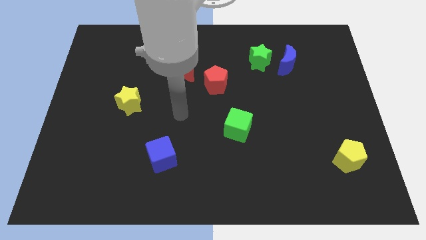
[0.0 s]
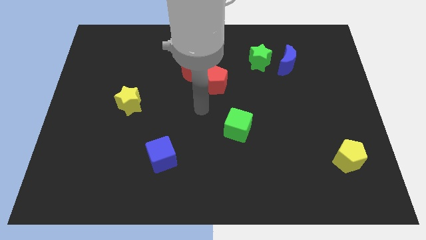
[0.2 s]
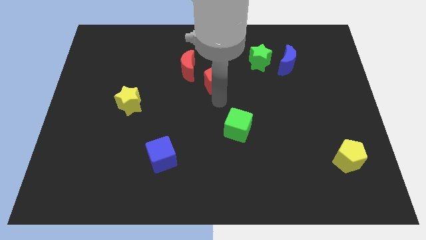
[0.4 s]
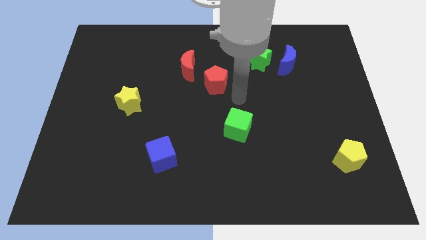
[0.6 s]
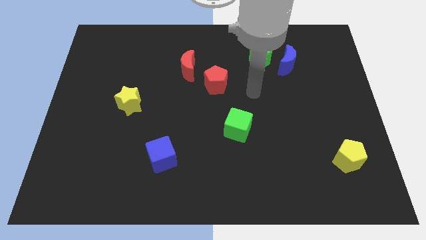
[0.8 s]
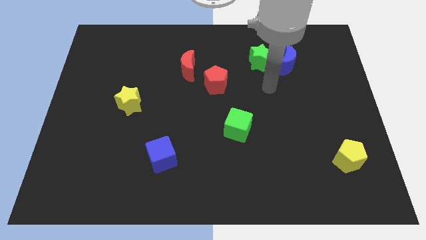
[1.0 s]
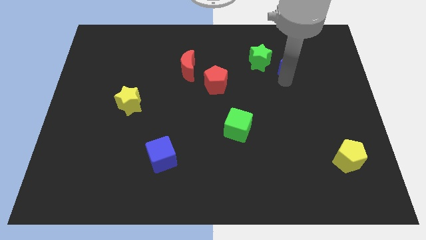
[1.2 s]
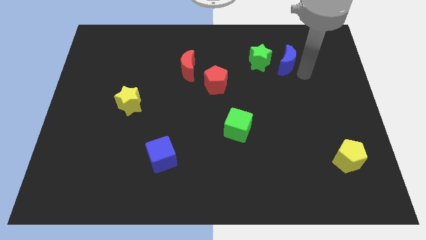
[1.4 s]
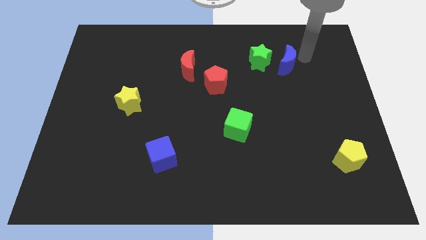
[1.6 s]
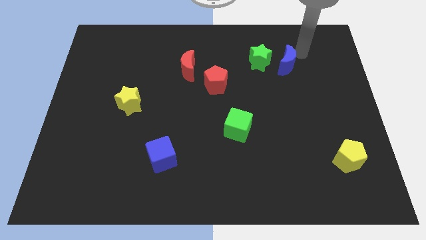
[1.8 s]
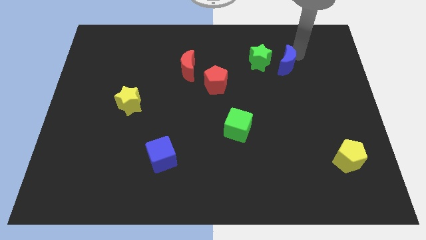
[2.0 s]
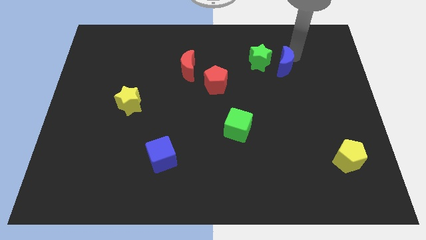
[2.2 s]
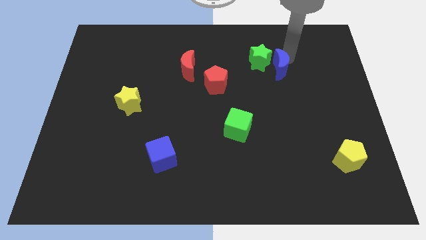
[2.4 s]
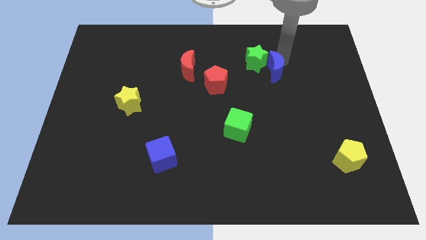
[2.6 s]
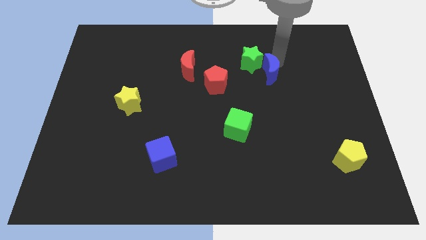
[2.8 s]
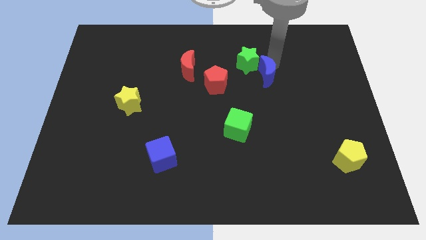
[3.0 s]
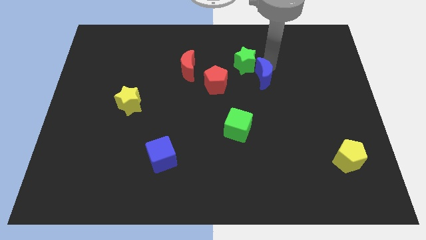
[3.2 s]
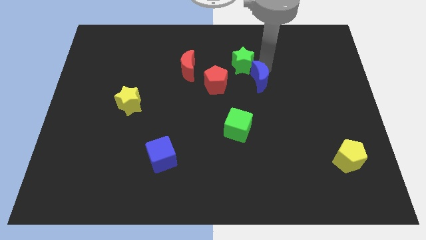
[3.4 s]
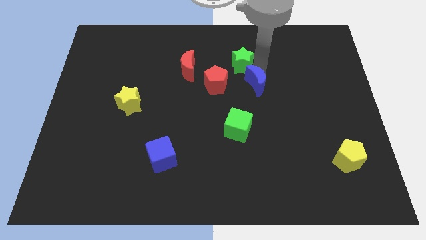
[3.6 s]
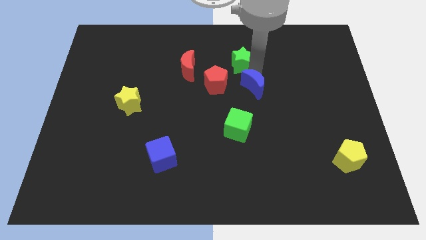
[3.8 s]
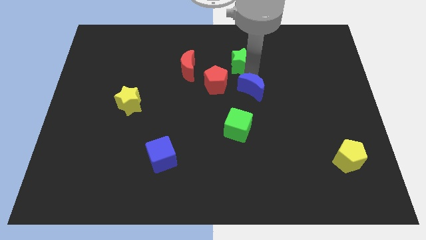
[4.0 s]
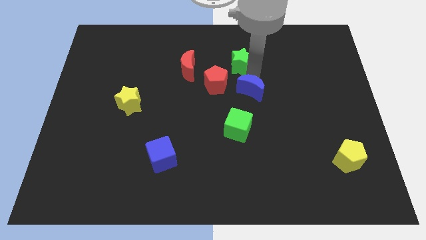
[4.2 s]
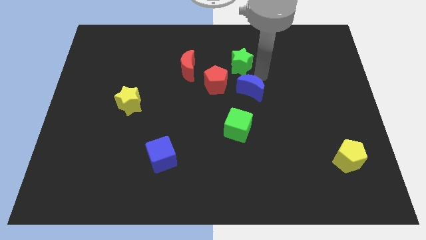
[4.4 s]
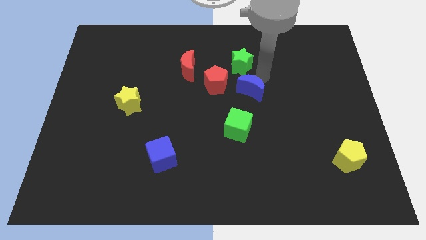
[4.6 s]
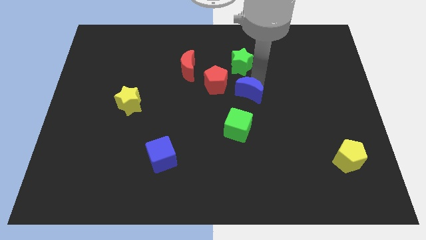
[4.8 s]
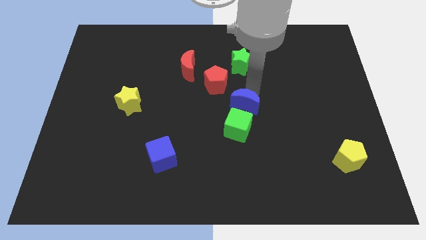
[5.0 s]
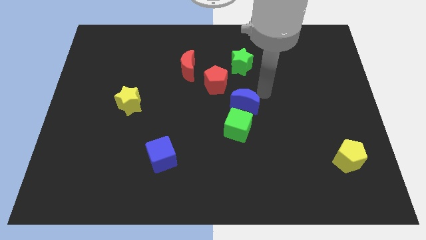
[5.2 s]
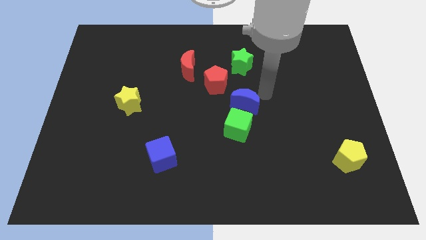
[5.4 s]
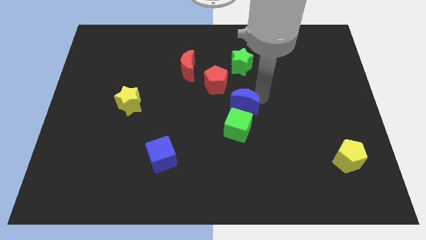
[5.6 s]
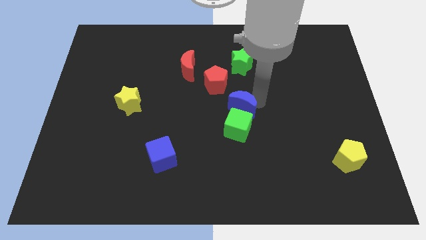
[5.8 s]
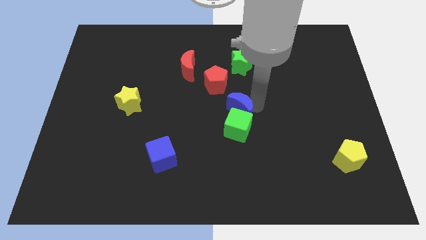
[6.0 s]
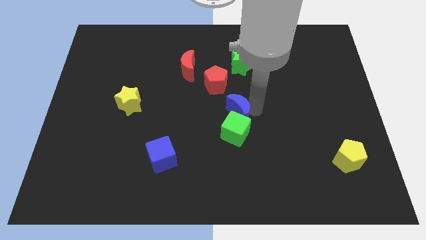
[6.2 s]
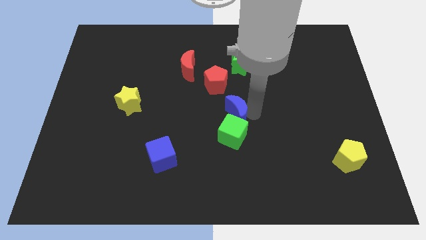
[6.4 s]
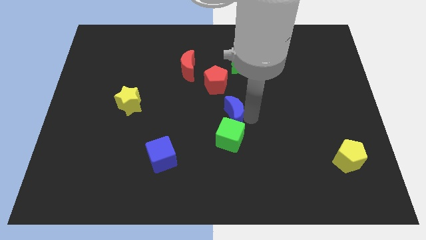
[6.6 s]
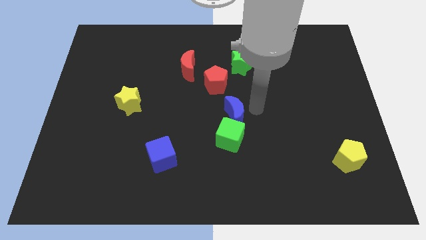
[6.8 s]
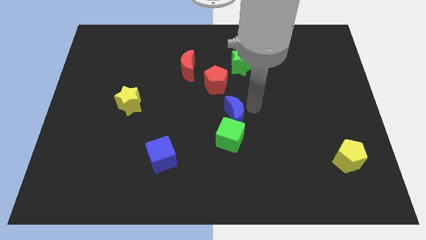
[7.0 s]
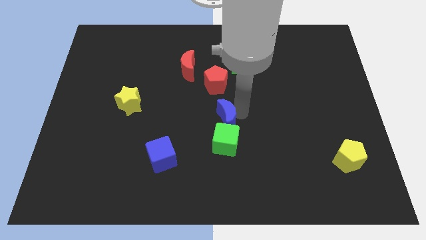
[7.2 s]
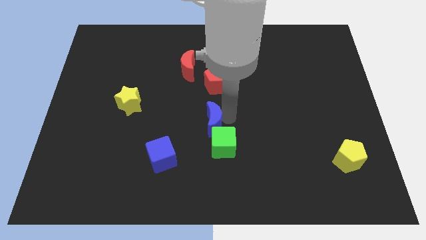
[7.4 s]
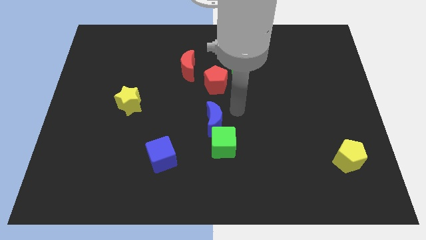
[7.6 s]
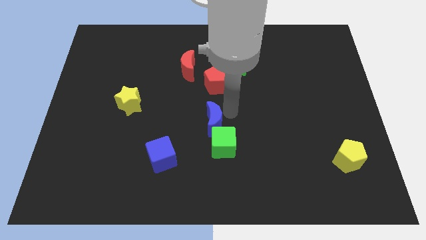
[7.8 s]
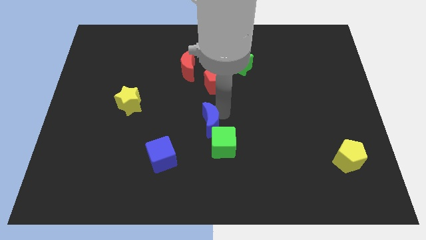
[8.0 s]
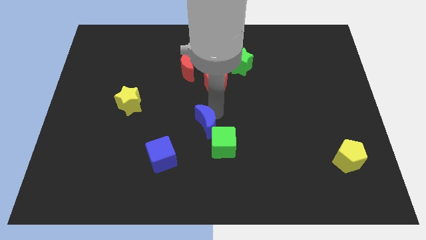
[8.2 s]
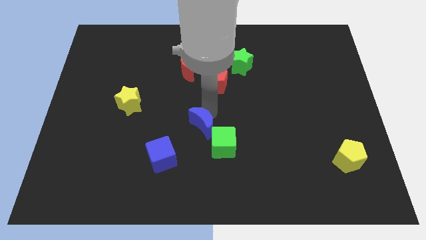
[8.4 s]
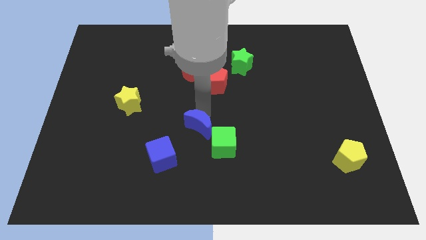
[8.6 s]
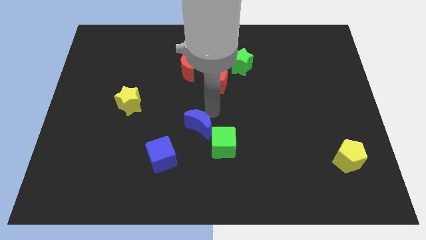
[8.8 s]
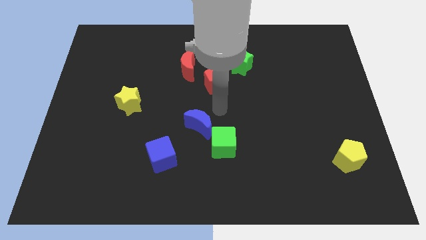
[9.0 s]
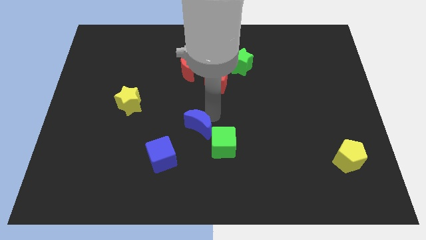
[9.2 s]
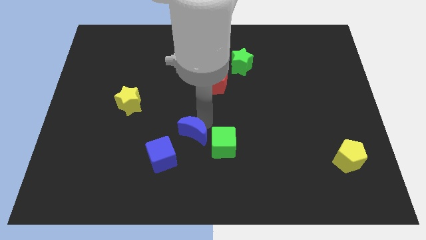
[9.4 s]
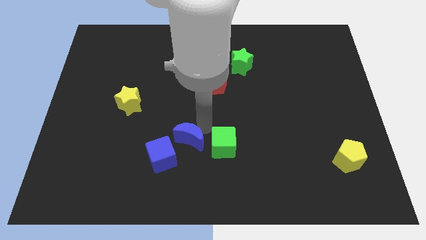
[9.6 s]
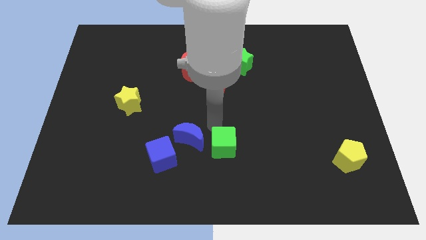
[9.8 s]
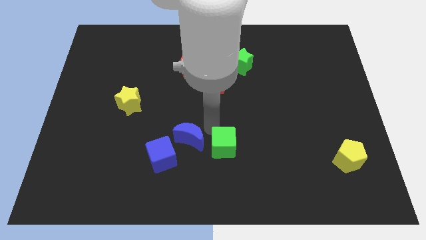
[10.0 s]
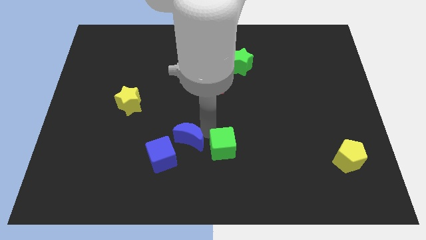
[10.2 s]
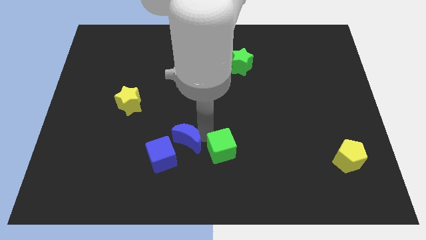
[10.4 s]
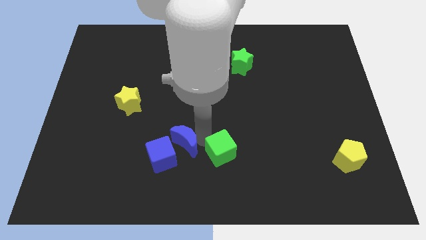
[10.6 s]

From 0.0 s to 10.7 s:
put the blue moon towards the blue cube

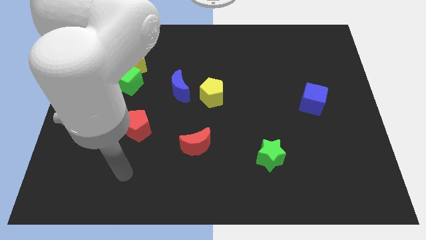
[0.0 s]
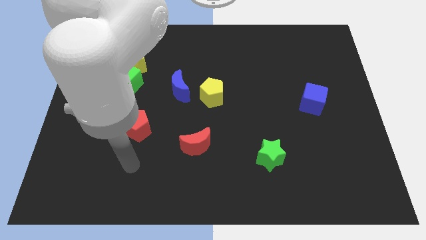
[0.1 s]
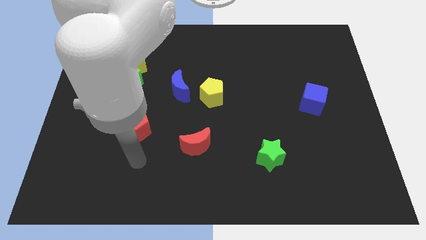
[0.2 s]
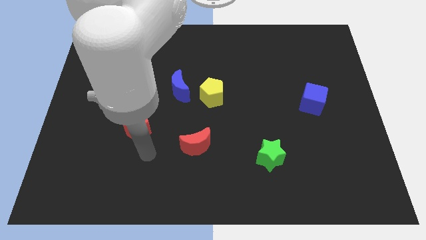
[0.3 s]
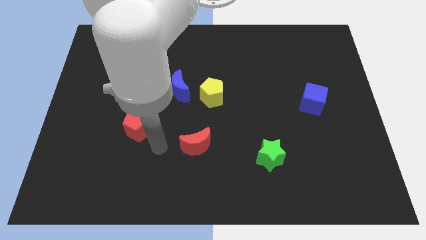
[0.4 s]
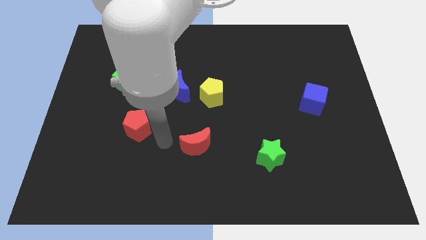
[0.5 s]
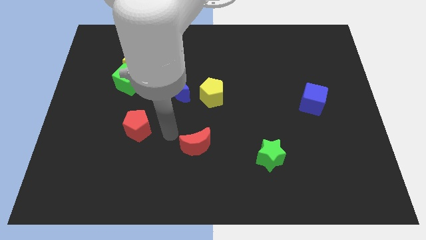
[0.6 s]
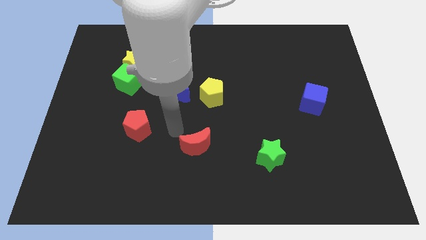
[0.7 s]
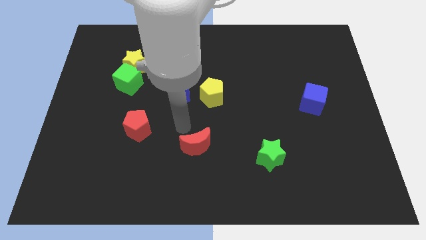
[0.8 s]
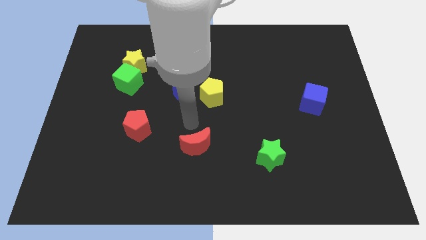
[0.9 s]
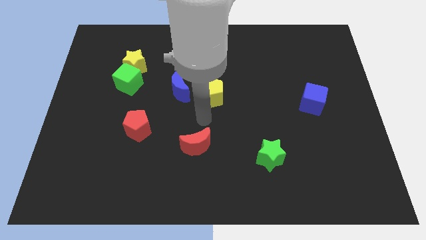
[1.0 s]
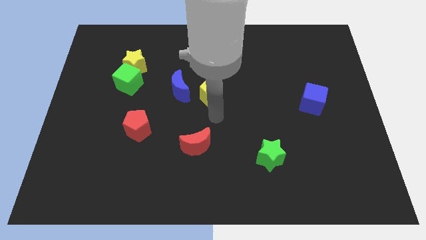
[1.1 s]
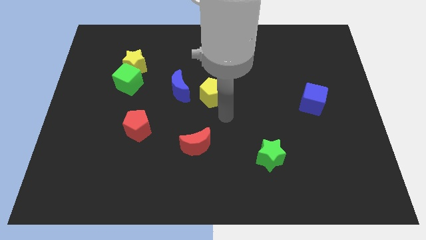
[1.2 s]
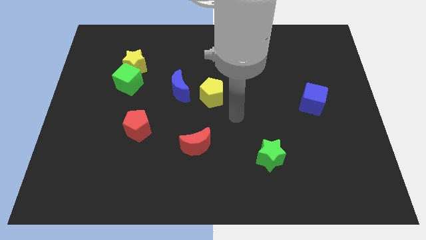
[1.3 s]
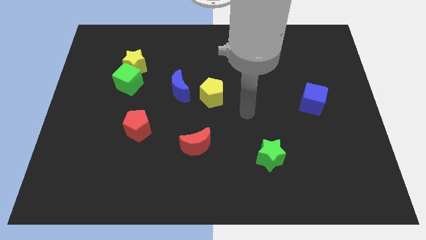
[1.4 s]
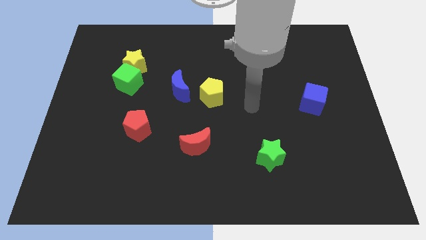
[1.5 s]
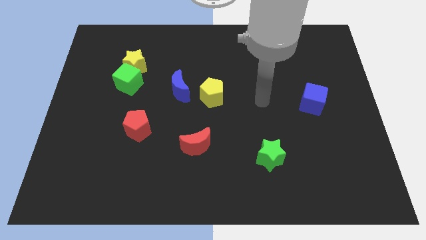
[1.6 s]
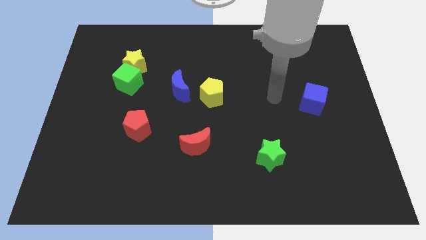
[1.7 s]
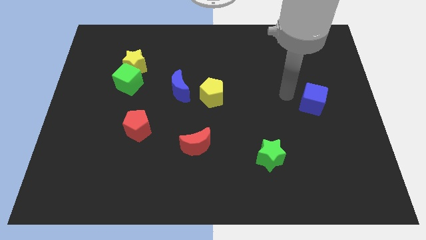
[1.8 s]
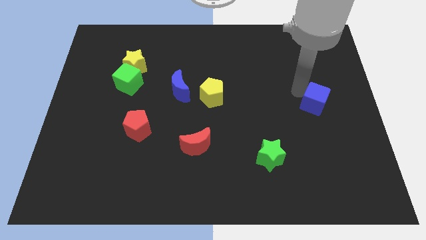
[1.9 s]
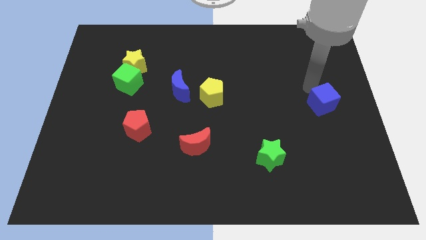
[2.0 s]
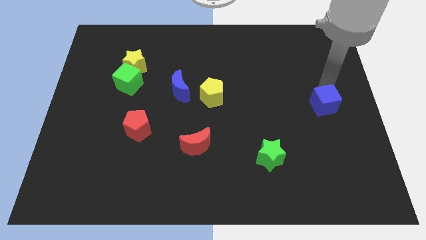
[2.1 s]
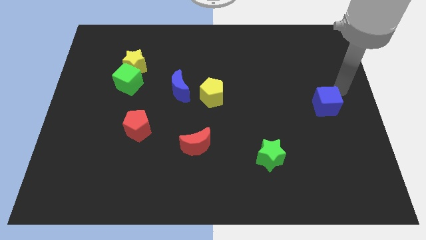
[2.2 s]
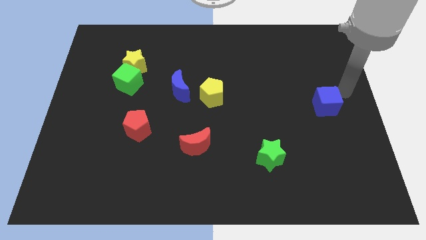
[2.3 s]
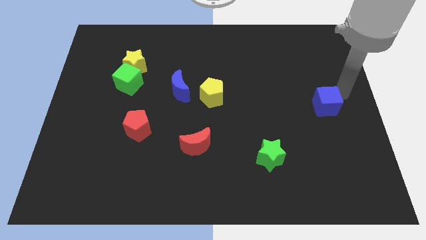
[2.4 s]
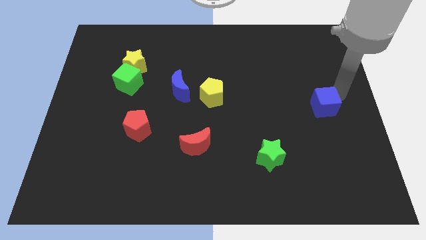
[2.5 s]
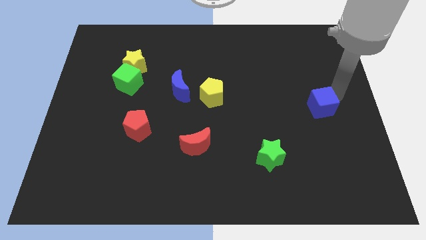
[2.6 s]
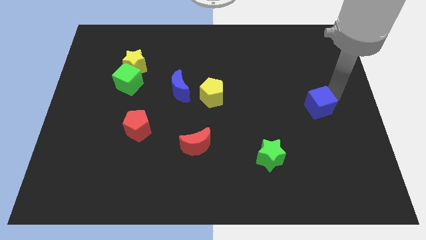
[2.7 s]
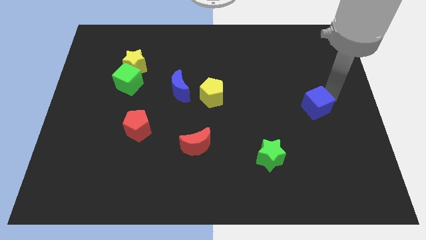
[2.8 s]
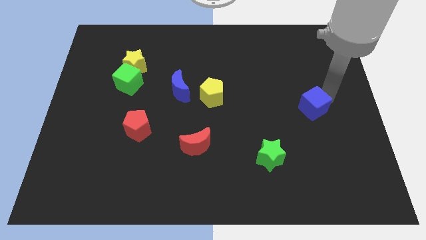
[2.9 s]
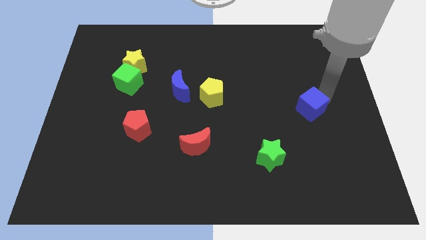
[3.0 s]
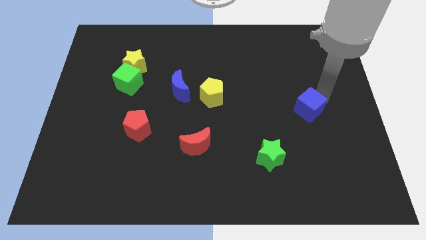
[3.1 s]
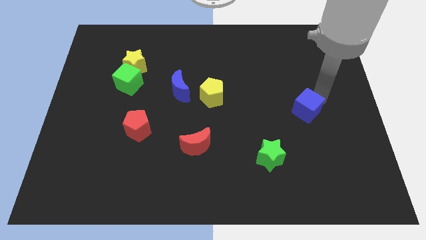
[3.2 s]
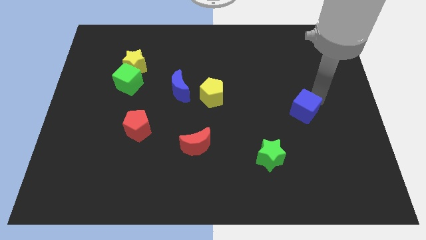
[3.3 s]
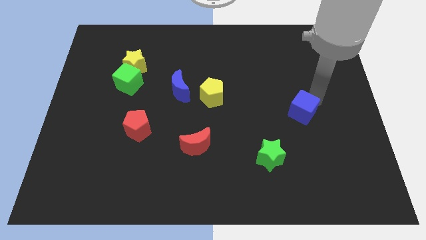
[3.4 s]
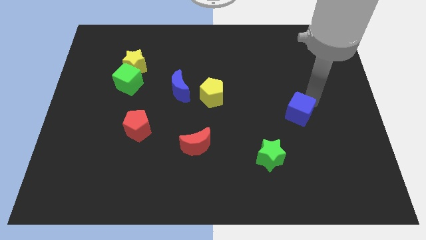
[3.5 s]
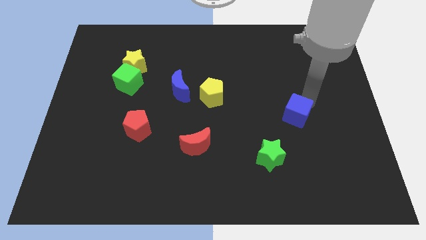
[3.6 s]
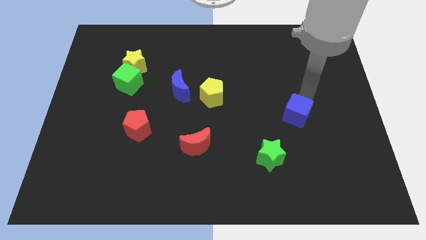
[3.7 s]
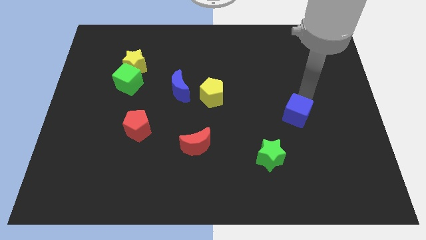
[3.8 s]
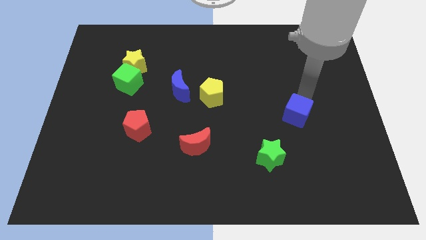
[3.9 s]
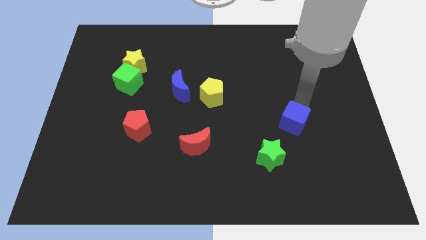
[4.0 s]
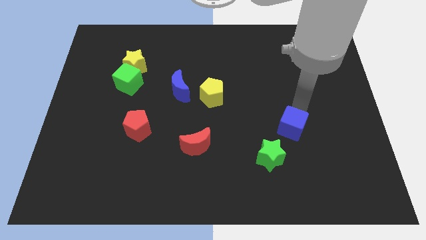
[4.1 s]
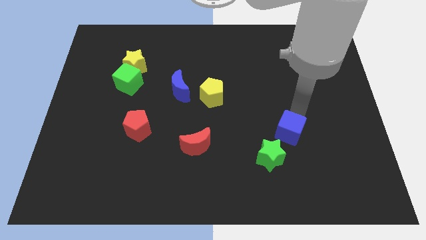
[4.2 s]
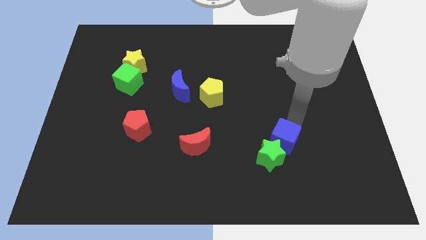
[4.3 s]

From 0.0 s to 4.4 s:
move the blue cube to the green star
